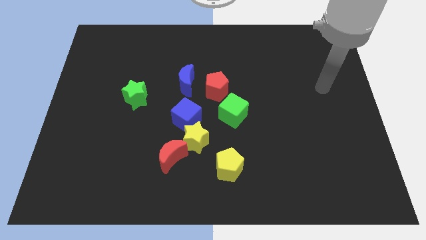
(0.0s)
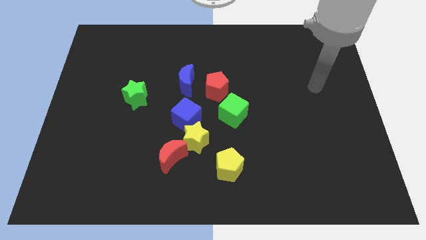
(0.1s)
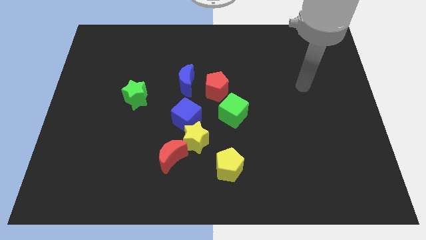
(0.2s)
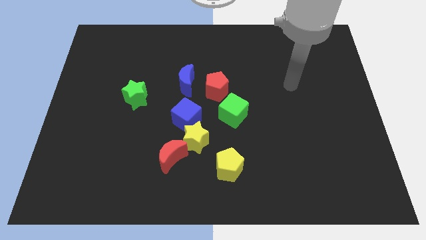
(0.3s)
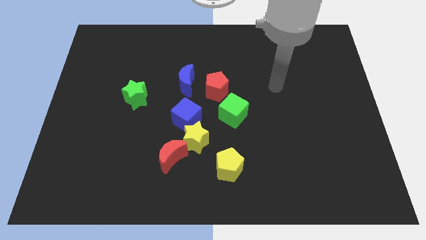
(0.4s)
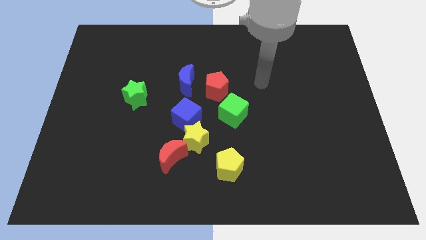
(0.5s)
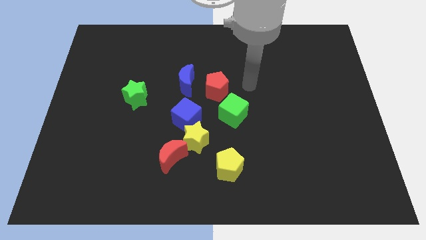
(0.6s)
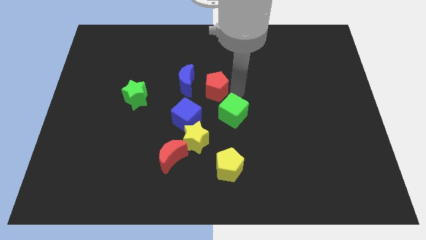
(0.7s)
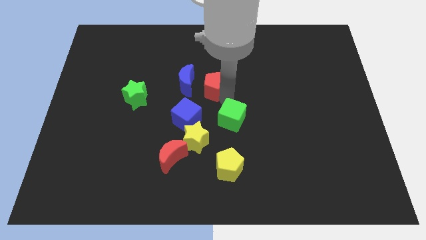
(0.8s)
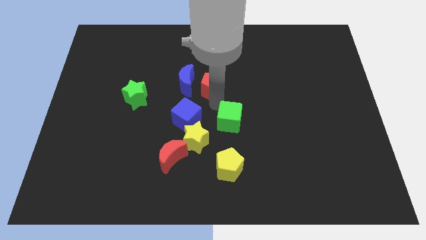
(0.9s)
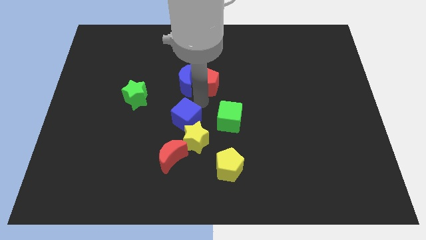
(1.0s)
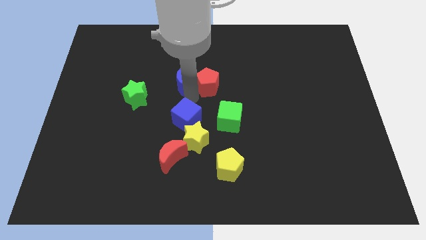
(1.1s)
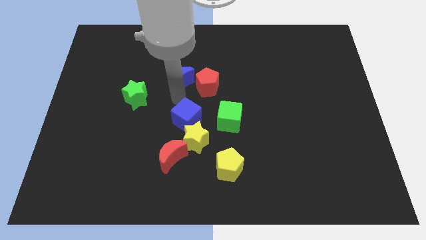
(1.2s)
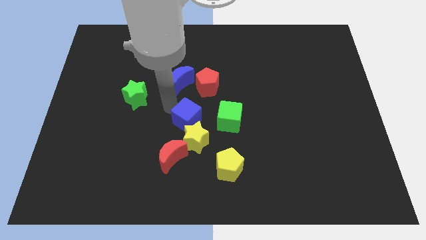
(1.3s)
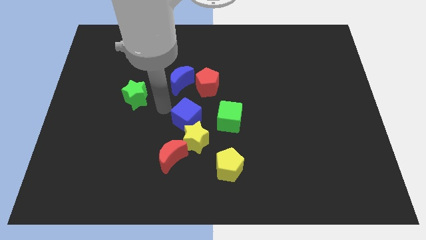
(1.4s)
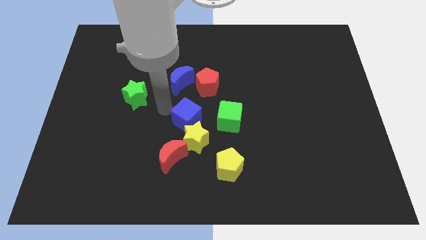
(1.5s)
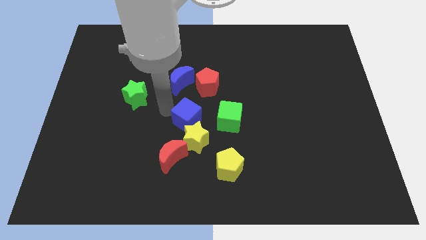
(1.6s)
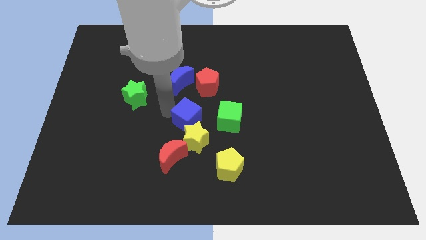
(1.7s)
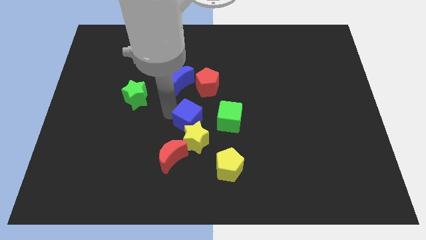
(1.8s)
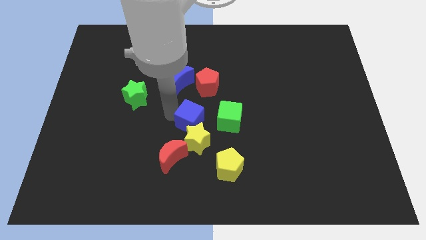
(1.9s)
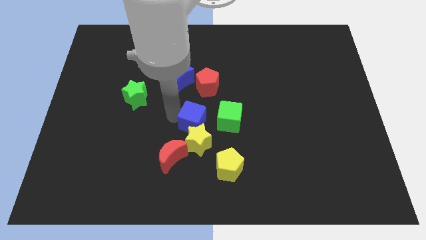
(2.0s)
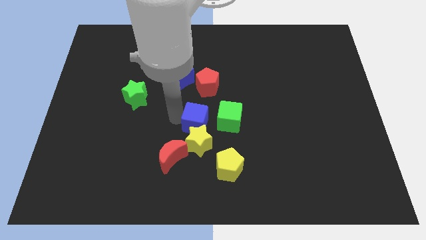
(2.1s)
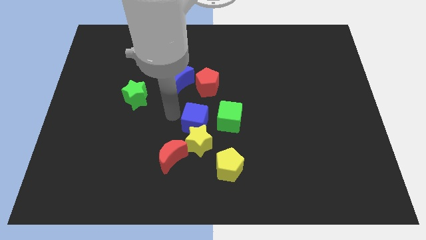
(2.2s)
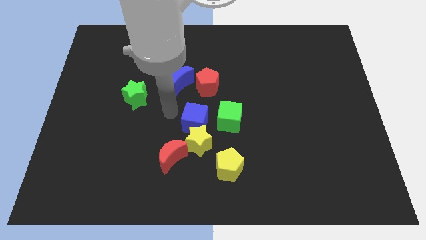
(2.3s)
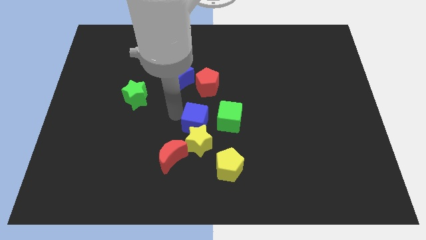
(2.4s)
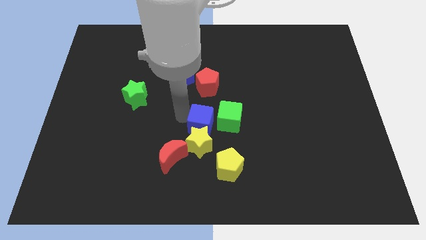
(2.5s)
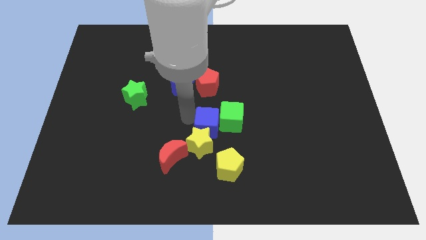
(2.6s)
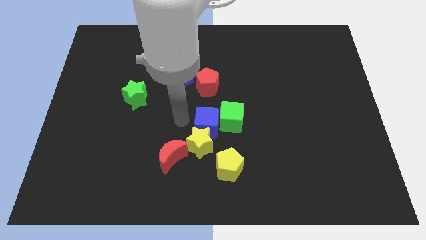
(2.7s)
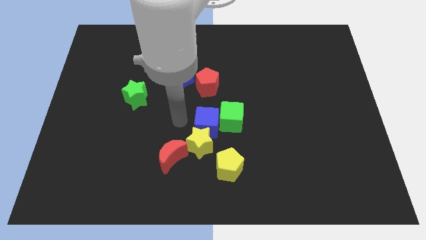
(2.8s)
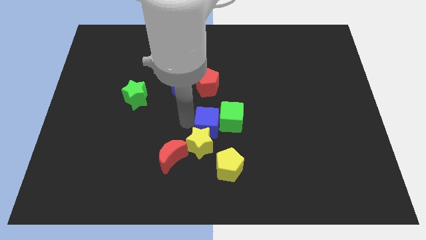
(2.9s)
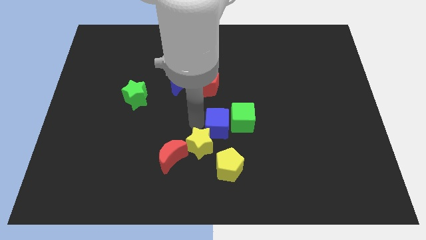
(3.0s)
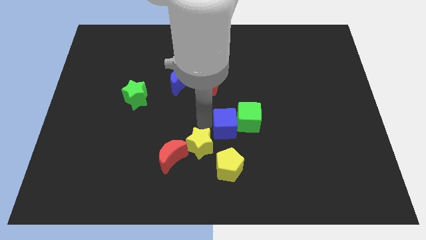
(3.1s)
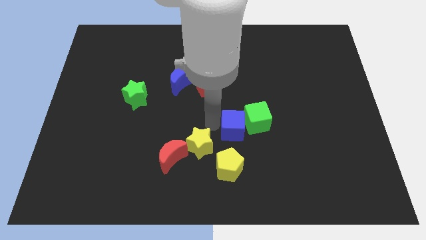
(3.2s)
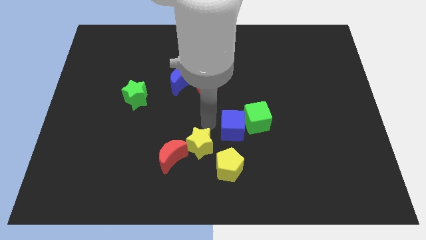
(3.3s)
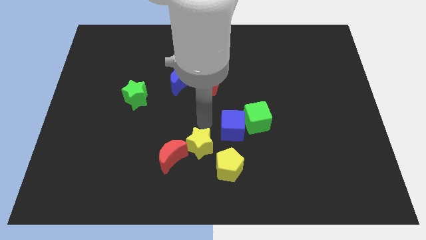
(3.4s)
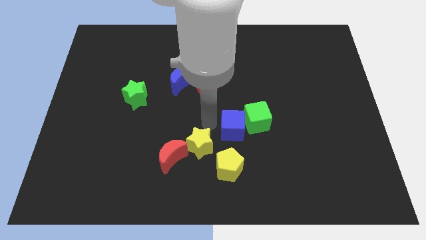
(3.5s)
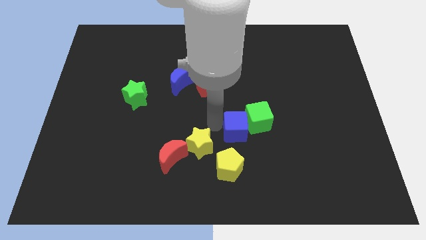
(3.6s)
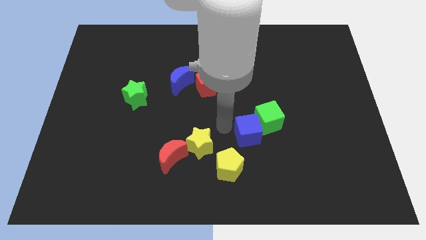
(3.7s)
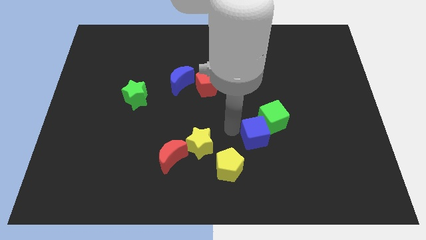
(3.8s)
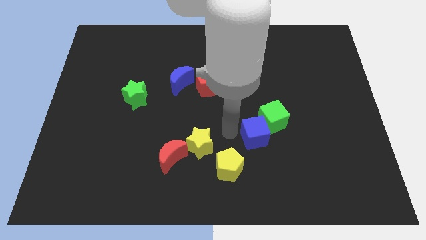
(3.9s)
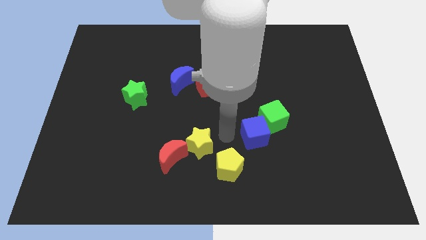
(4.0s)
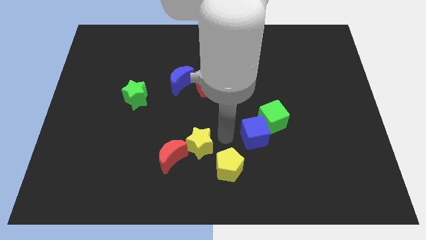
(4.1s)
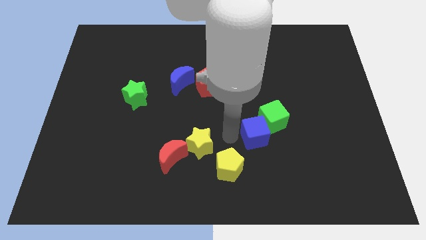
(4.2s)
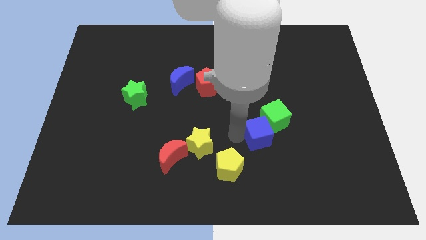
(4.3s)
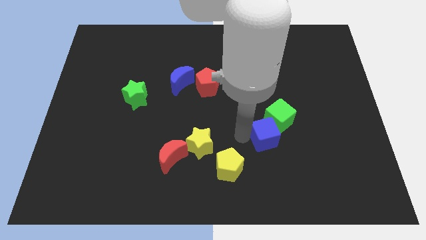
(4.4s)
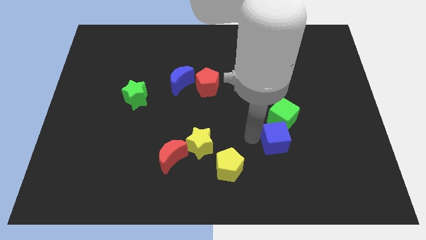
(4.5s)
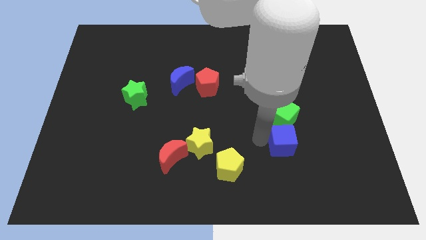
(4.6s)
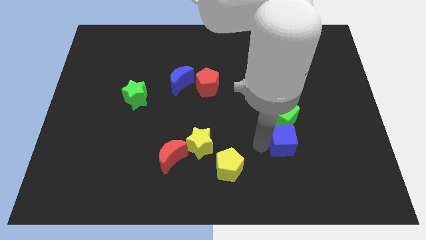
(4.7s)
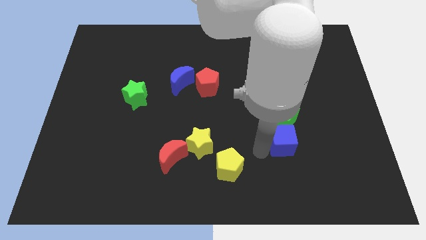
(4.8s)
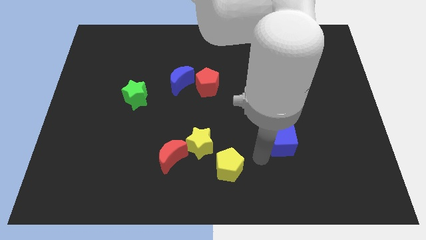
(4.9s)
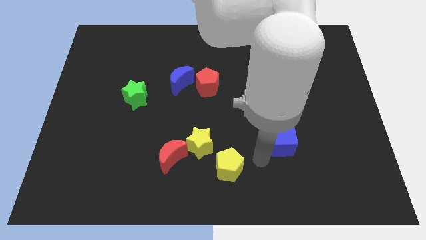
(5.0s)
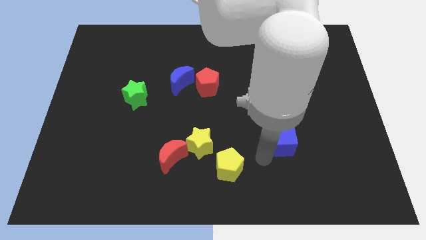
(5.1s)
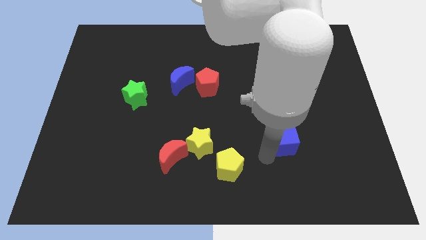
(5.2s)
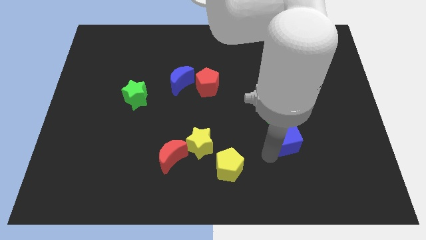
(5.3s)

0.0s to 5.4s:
slide the blue cube to the right

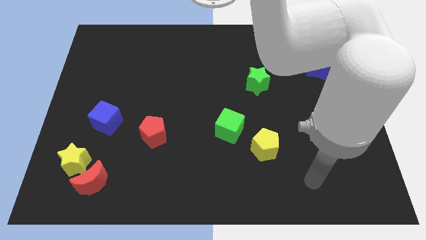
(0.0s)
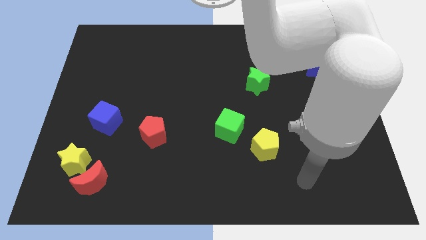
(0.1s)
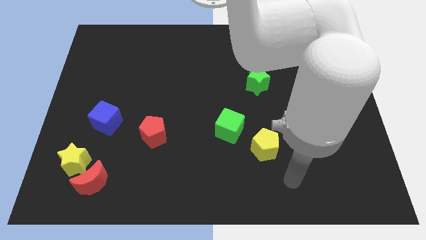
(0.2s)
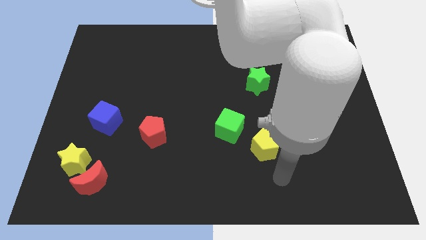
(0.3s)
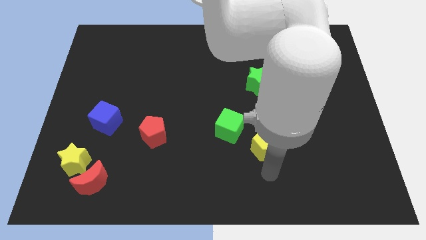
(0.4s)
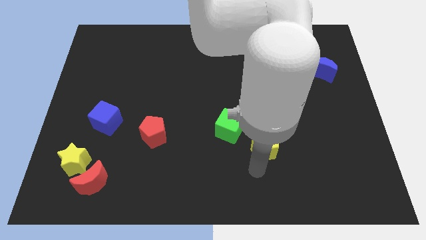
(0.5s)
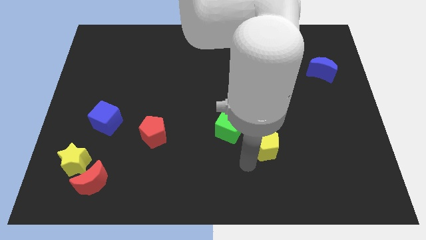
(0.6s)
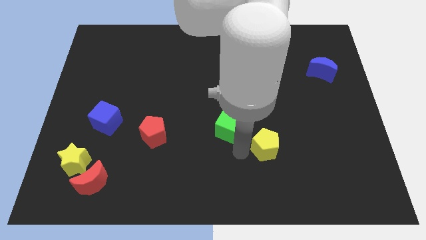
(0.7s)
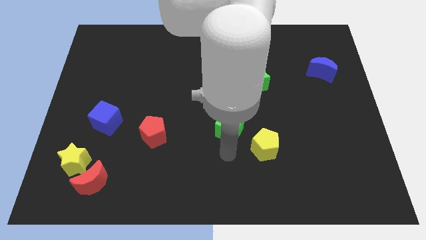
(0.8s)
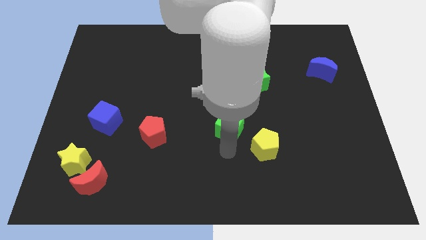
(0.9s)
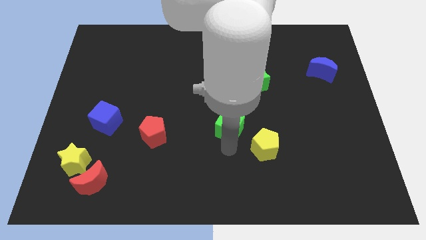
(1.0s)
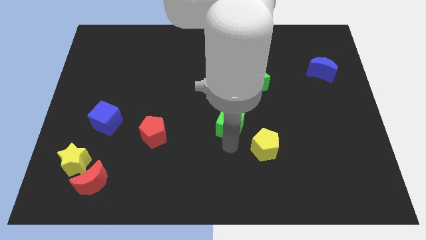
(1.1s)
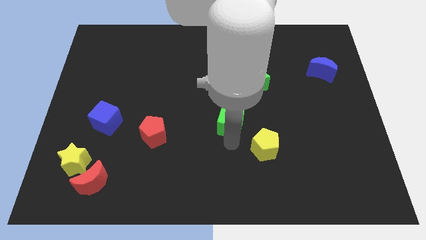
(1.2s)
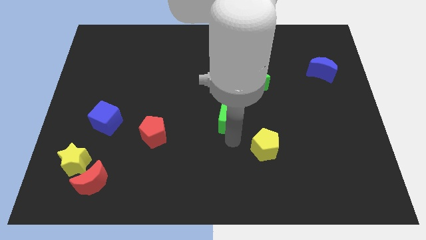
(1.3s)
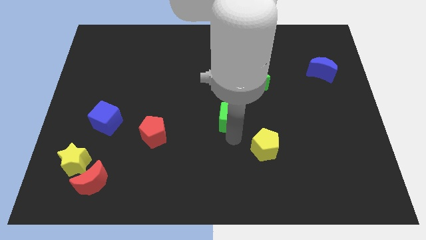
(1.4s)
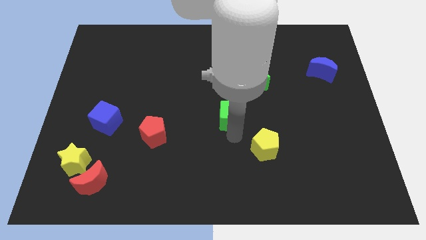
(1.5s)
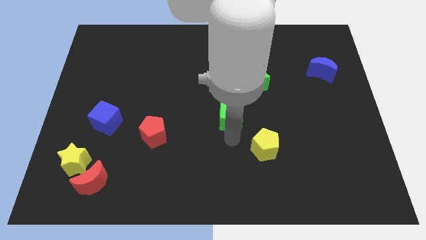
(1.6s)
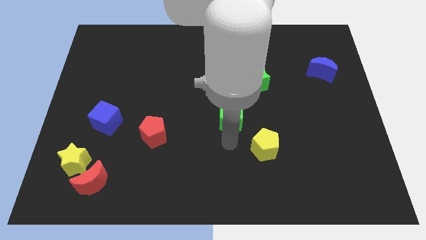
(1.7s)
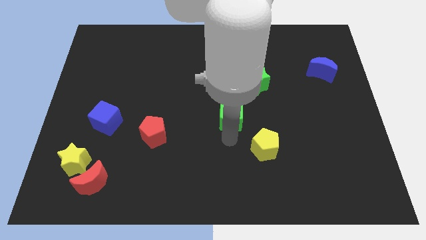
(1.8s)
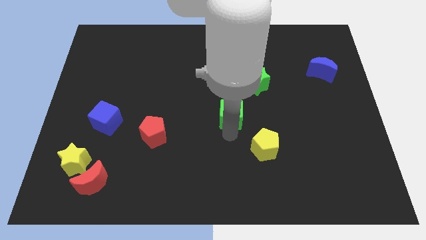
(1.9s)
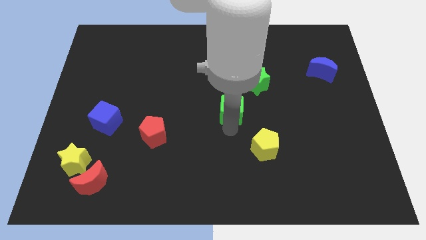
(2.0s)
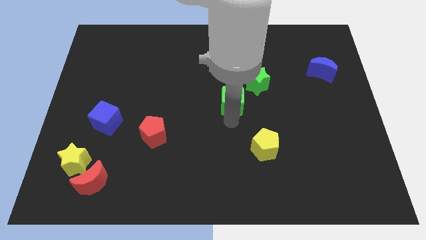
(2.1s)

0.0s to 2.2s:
slightly move the green cube upwards

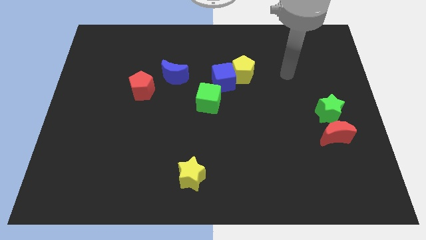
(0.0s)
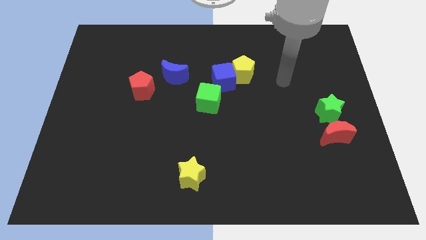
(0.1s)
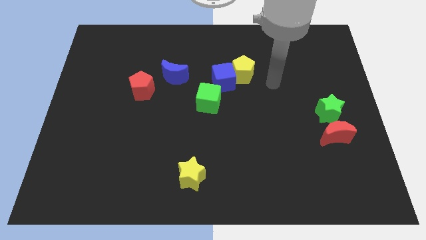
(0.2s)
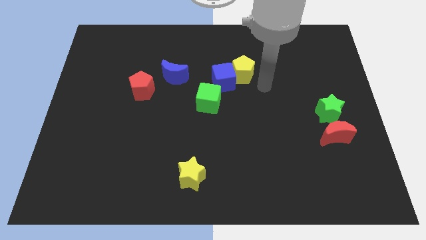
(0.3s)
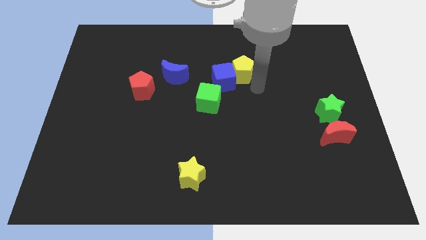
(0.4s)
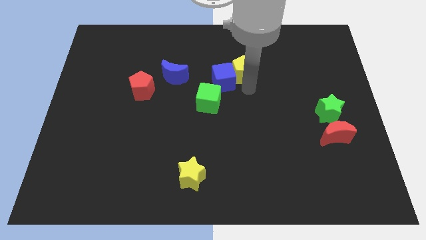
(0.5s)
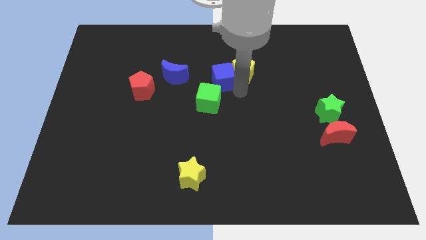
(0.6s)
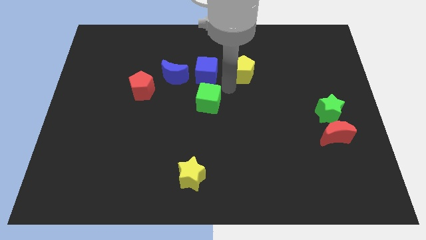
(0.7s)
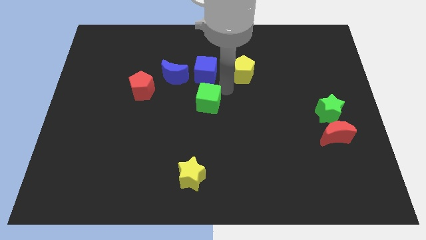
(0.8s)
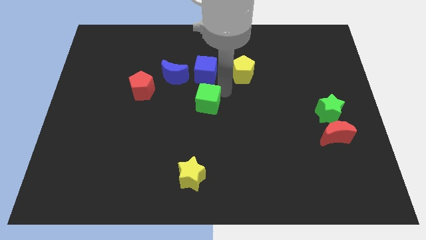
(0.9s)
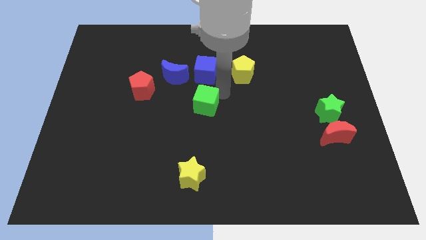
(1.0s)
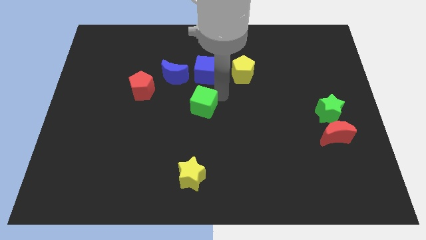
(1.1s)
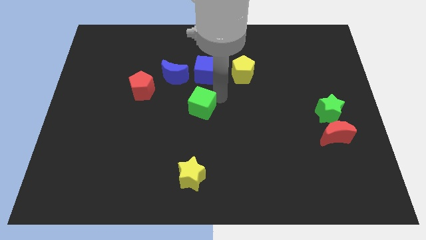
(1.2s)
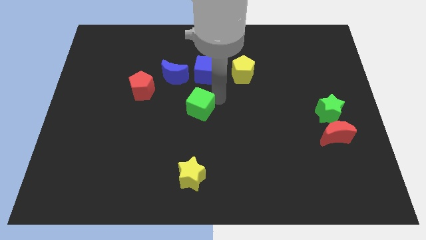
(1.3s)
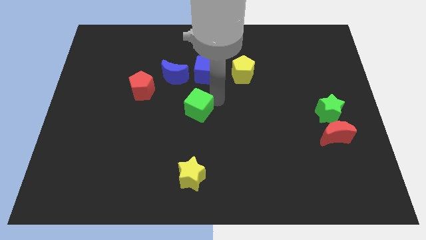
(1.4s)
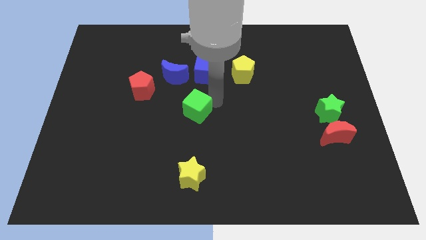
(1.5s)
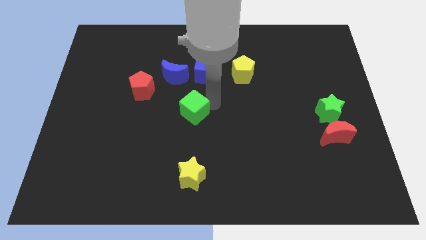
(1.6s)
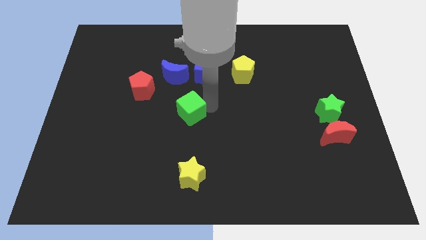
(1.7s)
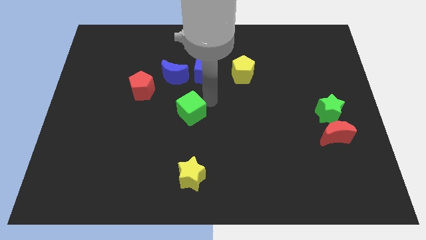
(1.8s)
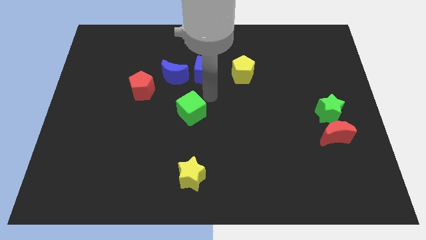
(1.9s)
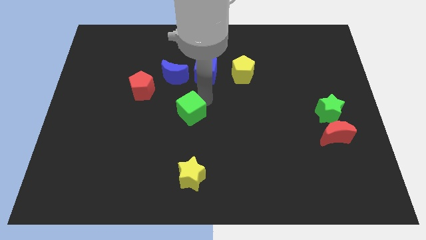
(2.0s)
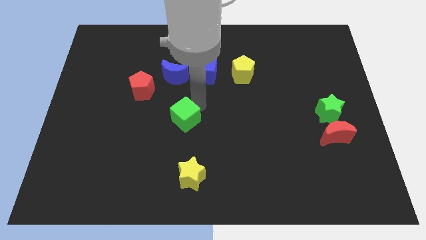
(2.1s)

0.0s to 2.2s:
move the green cube a little downwards and to the left diagonally
